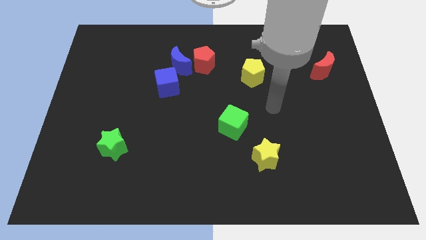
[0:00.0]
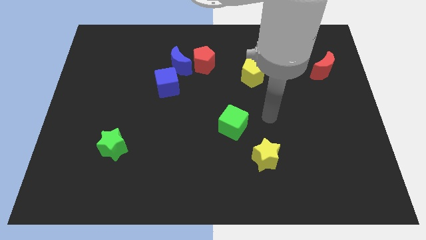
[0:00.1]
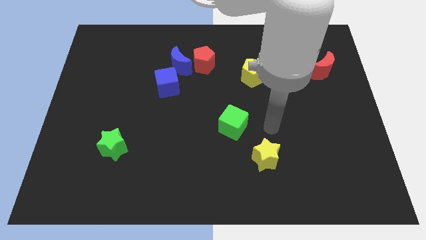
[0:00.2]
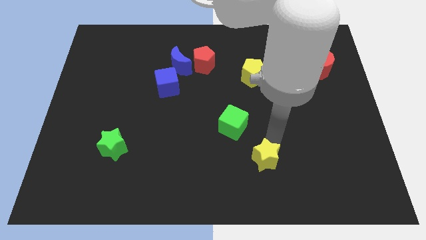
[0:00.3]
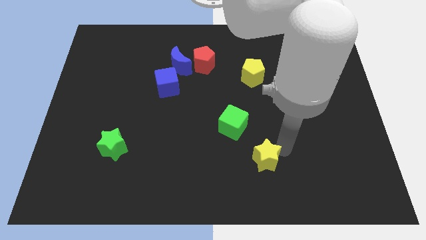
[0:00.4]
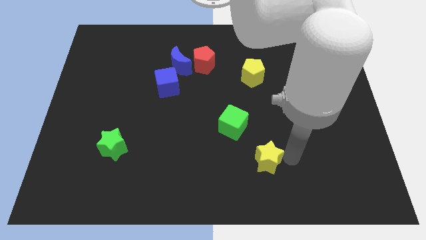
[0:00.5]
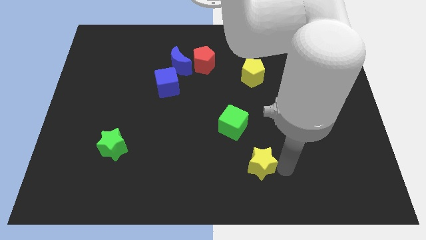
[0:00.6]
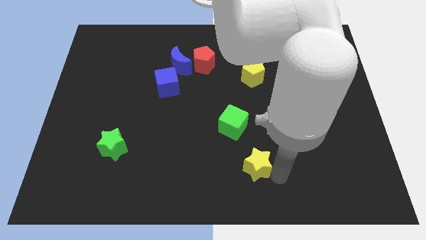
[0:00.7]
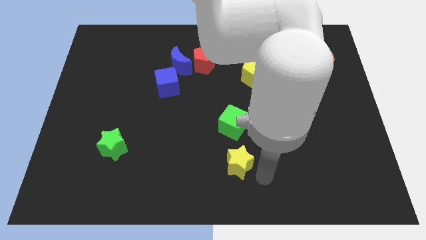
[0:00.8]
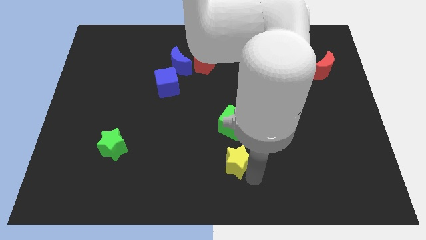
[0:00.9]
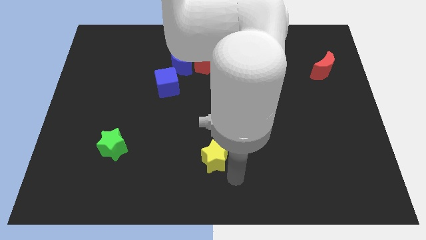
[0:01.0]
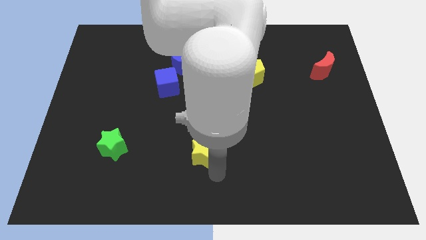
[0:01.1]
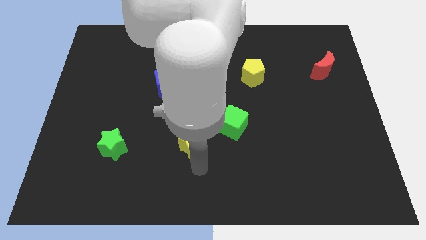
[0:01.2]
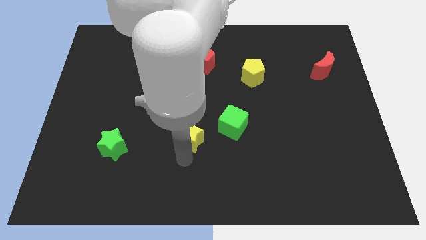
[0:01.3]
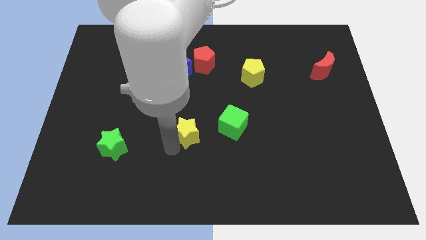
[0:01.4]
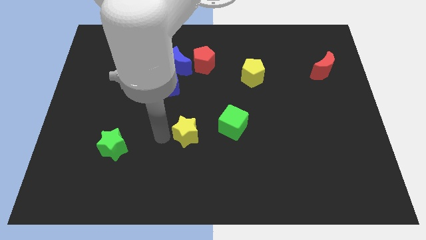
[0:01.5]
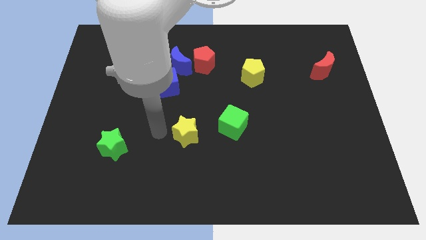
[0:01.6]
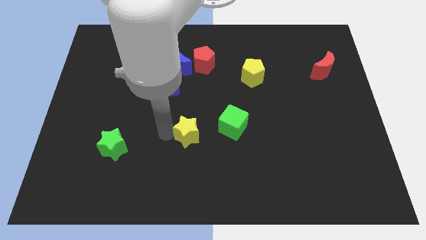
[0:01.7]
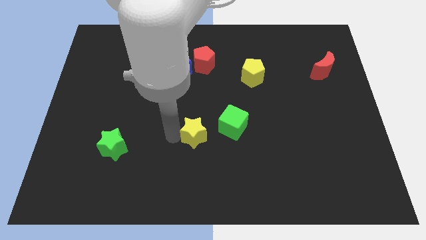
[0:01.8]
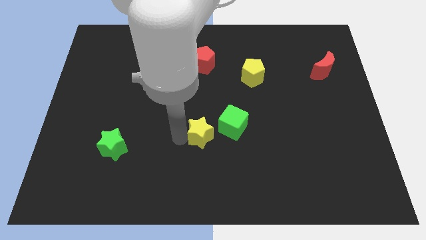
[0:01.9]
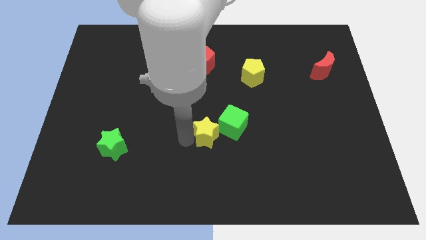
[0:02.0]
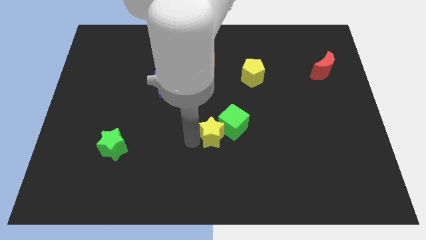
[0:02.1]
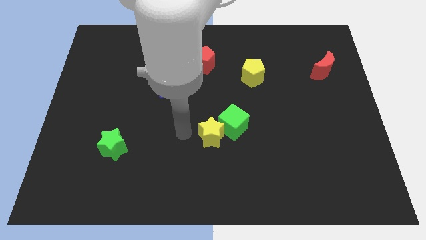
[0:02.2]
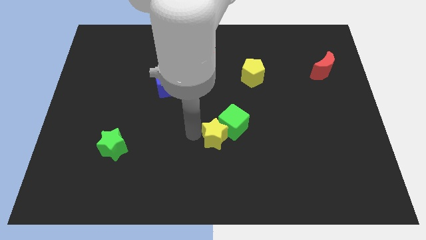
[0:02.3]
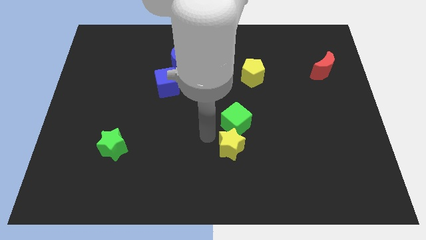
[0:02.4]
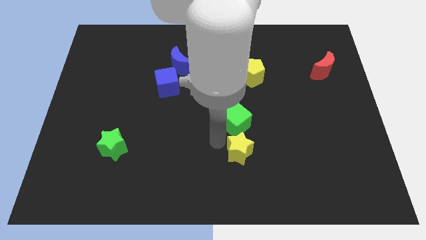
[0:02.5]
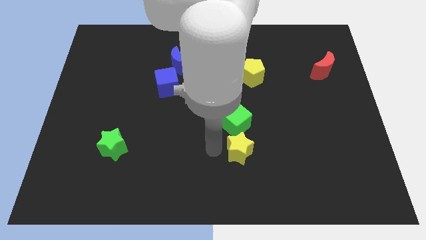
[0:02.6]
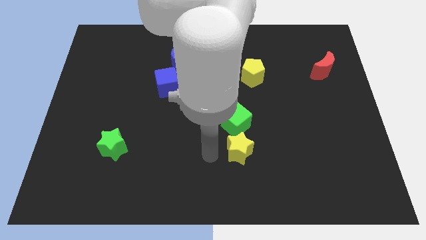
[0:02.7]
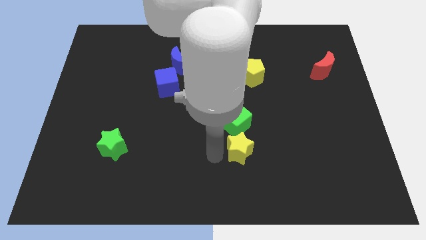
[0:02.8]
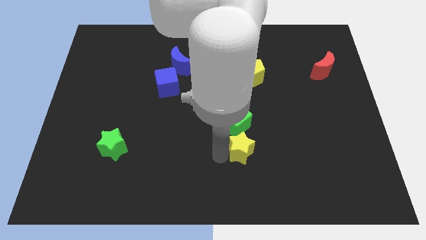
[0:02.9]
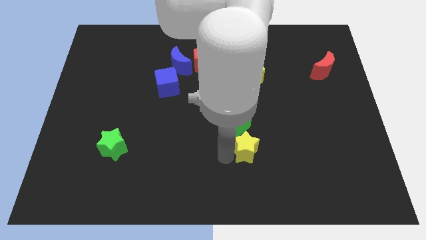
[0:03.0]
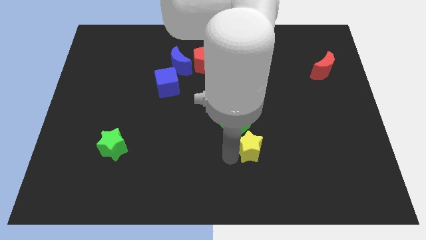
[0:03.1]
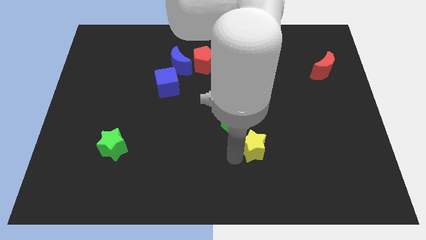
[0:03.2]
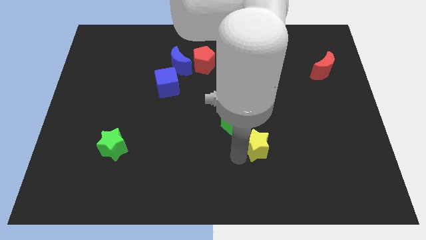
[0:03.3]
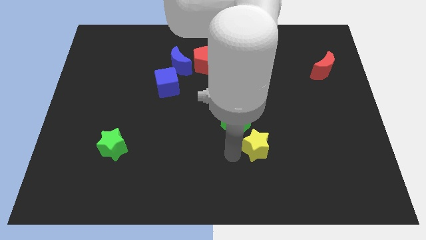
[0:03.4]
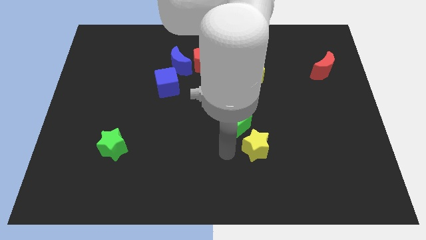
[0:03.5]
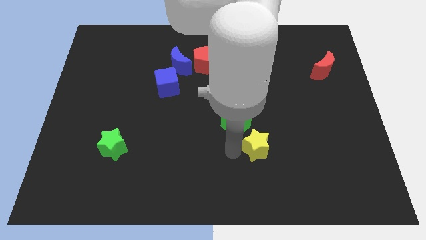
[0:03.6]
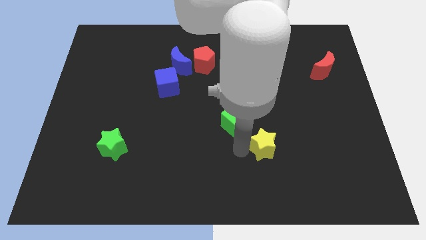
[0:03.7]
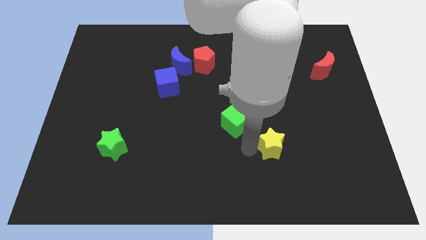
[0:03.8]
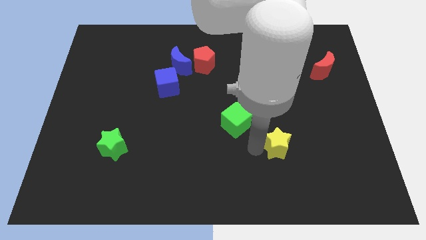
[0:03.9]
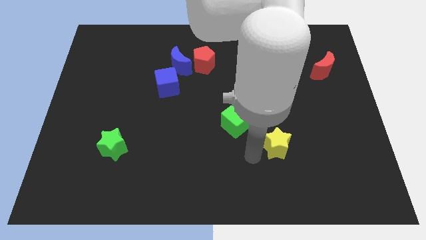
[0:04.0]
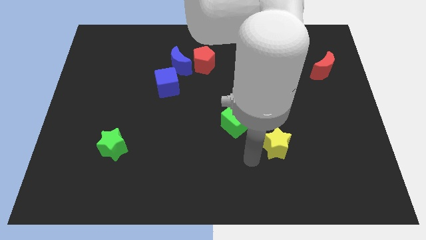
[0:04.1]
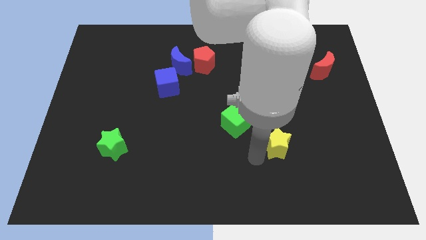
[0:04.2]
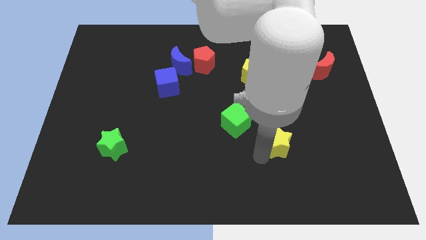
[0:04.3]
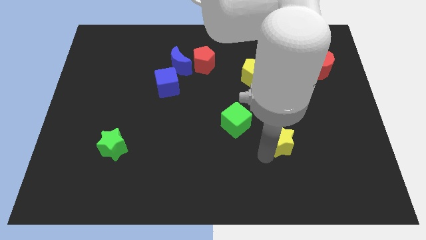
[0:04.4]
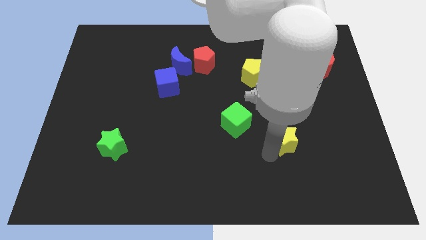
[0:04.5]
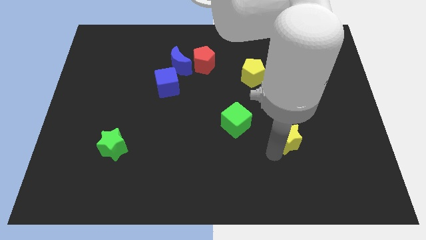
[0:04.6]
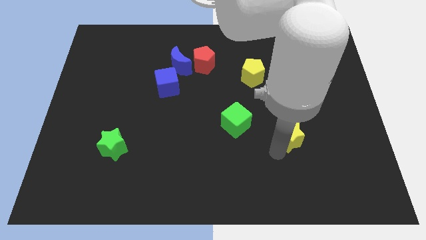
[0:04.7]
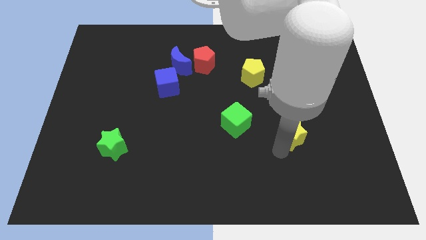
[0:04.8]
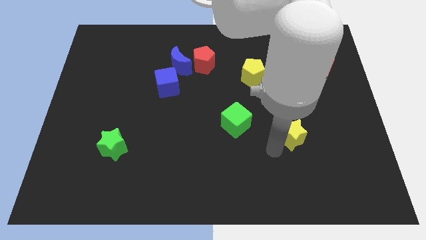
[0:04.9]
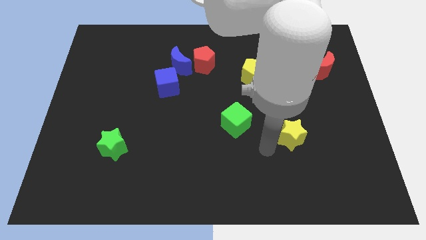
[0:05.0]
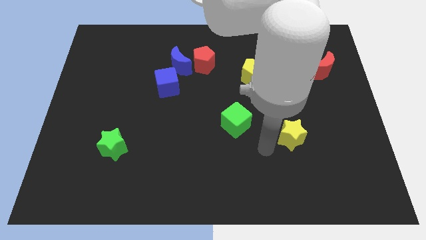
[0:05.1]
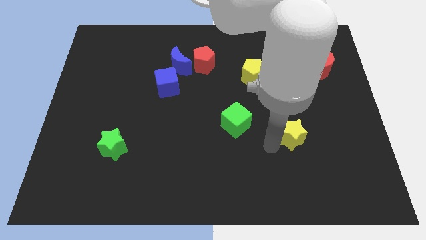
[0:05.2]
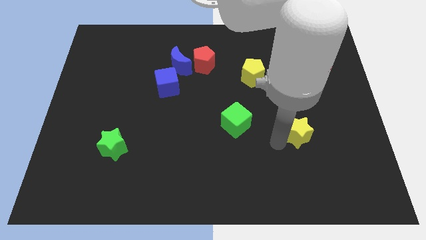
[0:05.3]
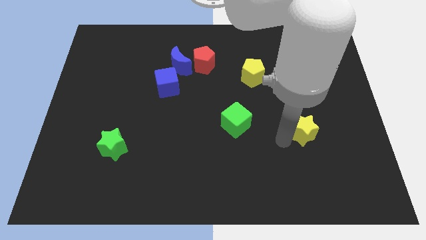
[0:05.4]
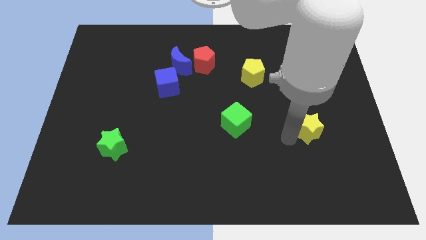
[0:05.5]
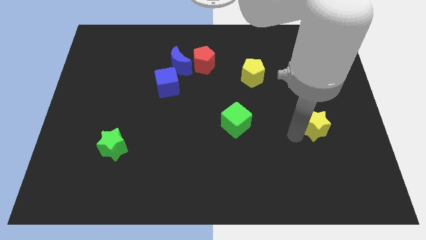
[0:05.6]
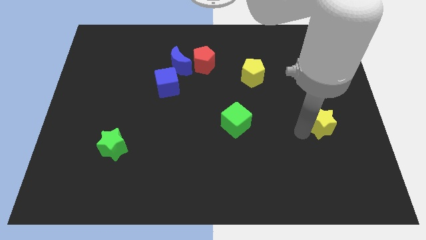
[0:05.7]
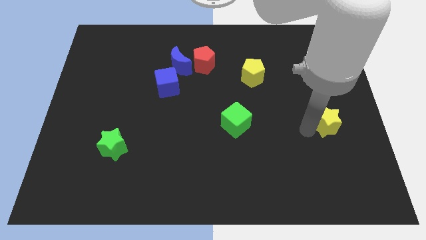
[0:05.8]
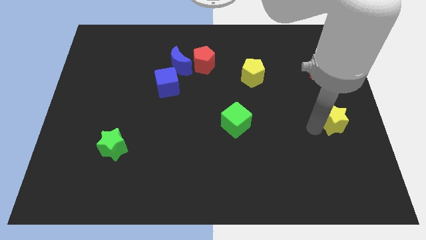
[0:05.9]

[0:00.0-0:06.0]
move the yellow star to the right side

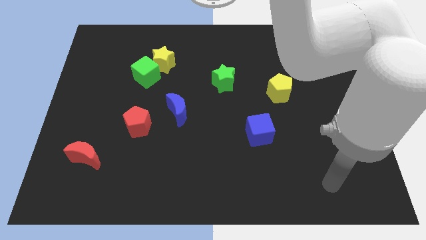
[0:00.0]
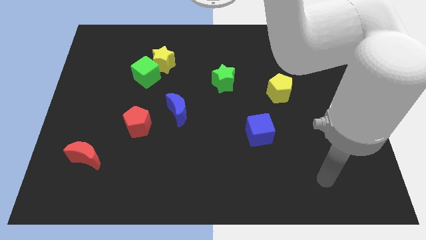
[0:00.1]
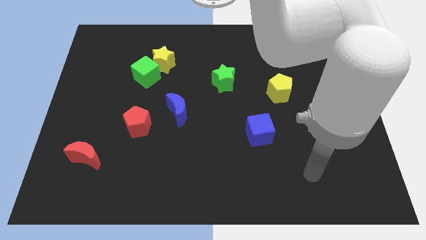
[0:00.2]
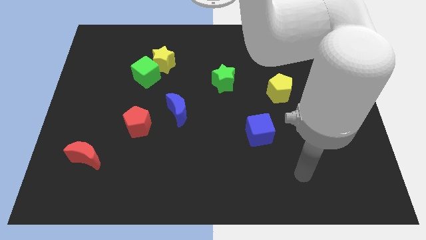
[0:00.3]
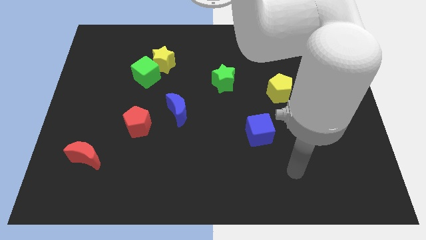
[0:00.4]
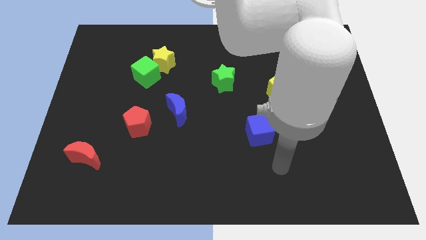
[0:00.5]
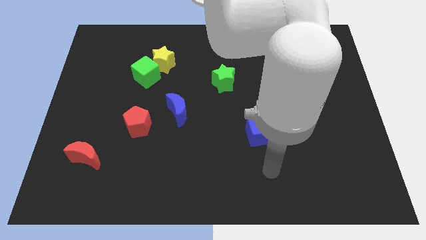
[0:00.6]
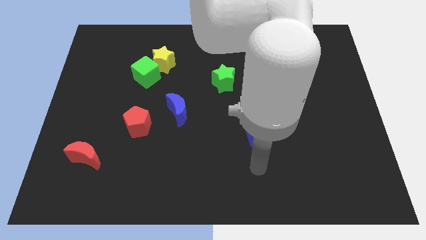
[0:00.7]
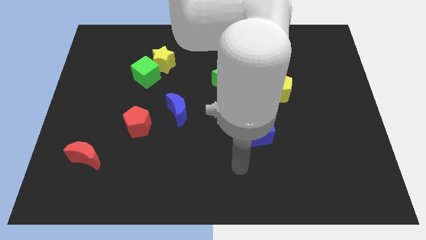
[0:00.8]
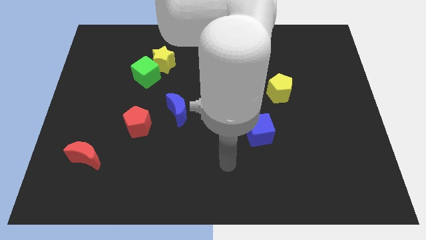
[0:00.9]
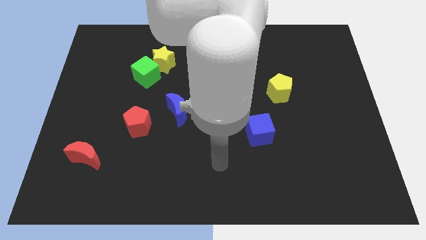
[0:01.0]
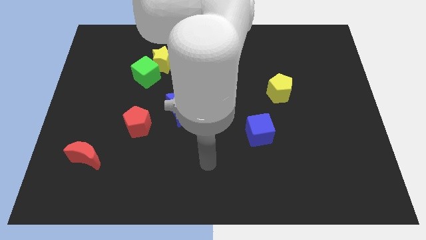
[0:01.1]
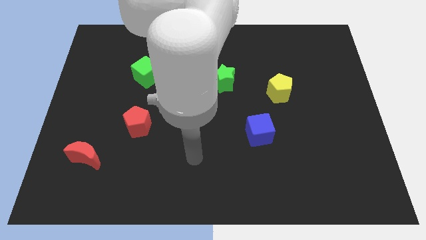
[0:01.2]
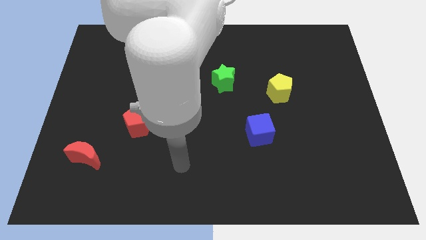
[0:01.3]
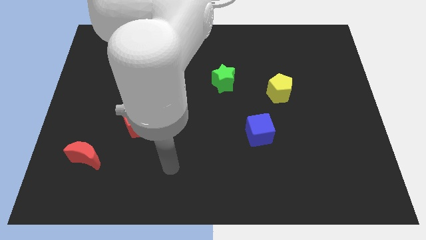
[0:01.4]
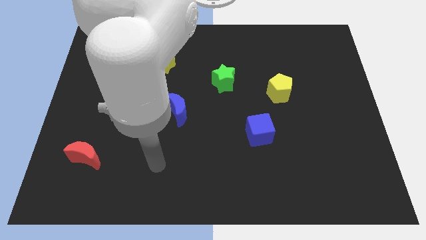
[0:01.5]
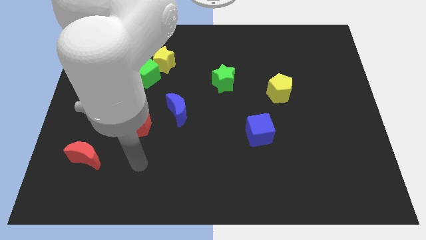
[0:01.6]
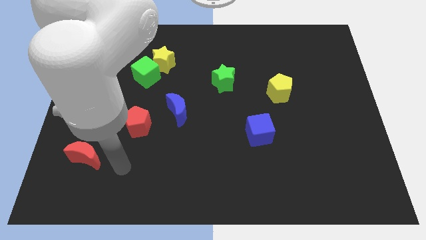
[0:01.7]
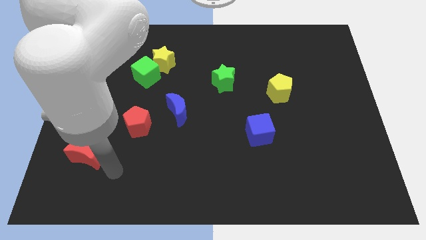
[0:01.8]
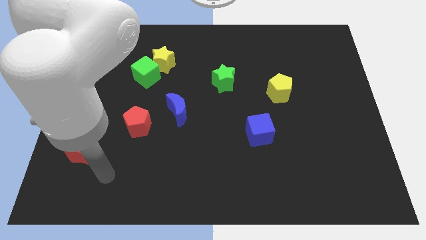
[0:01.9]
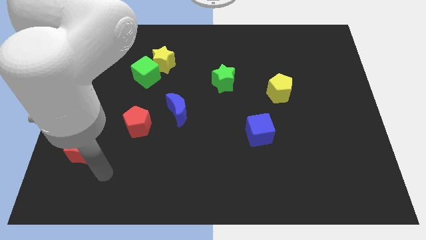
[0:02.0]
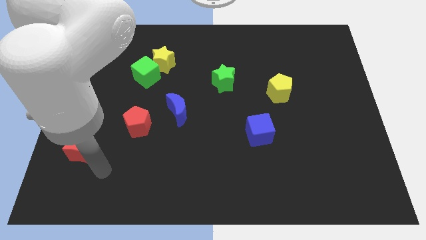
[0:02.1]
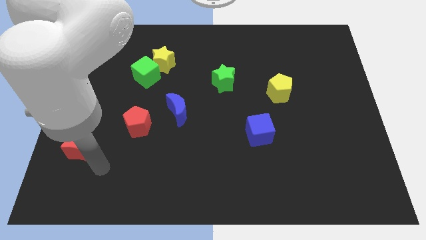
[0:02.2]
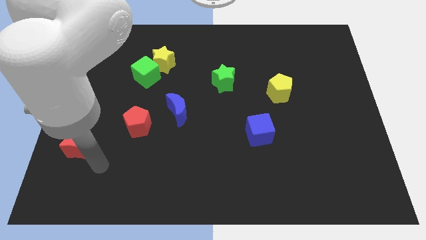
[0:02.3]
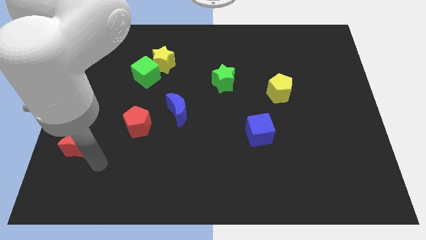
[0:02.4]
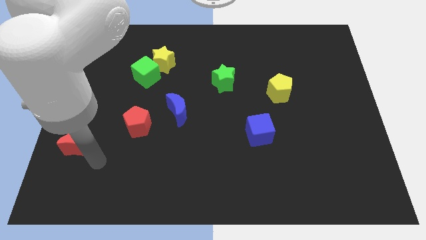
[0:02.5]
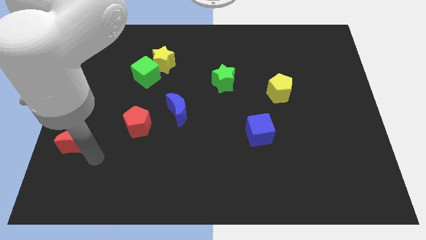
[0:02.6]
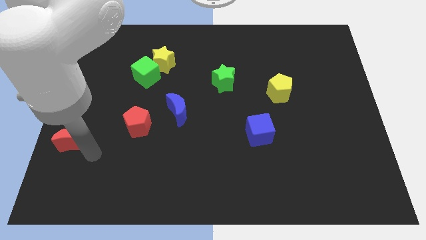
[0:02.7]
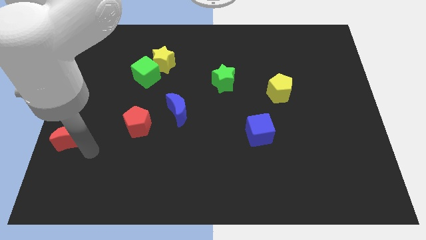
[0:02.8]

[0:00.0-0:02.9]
push the red moon to the center left

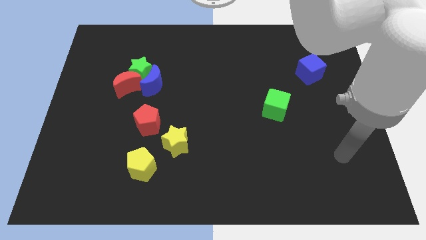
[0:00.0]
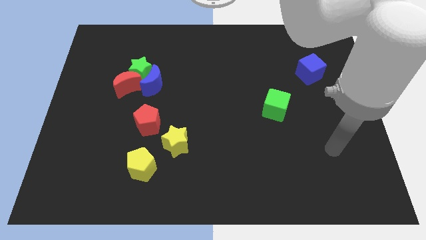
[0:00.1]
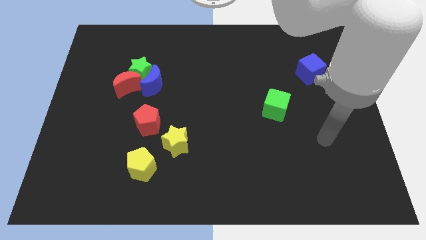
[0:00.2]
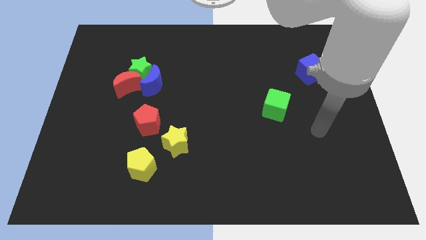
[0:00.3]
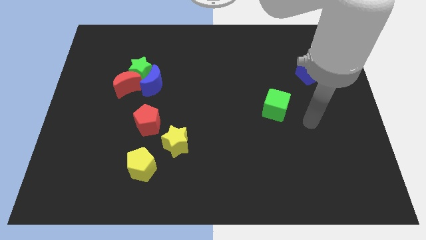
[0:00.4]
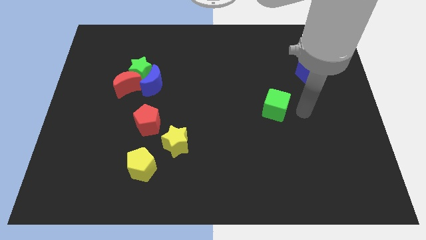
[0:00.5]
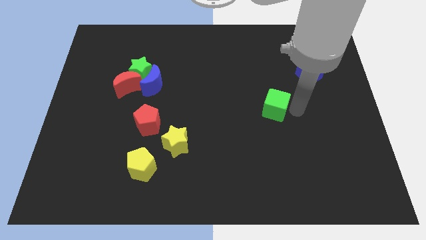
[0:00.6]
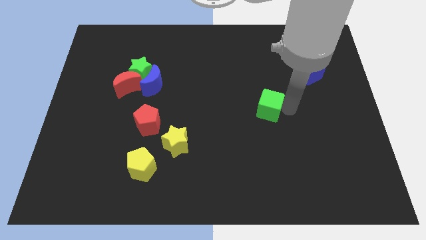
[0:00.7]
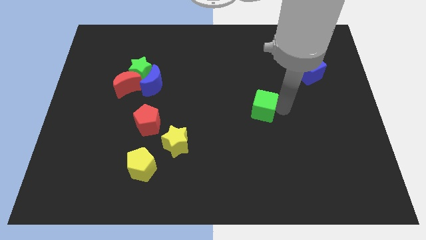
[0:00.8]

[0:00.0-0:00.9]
push the green cube to the center
